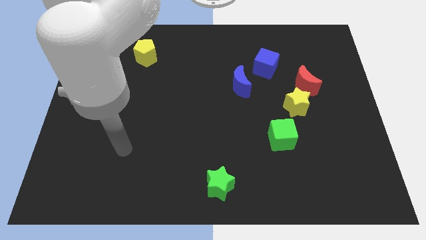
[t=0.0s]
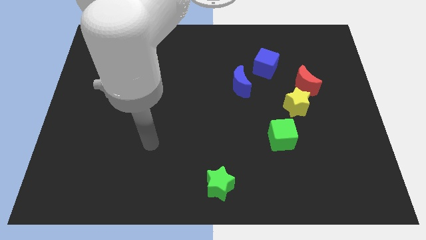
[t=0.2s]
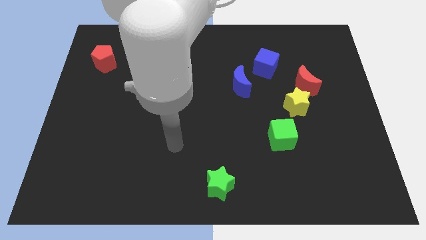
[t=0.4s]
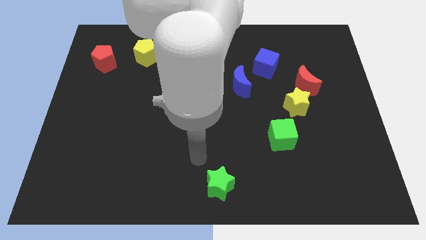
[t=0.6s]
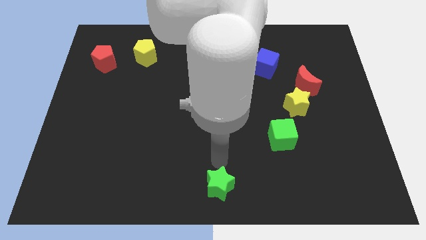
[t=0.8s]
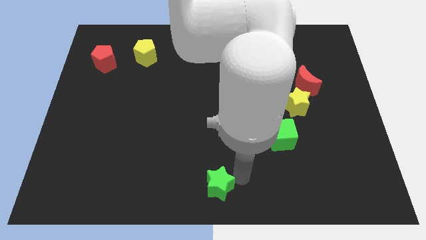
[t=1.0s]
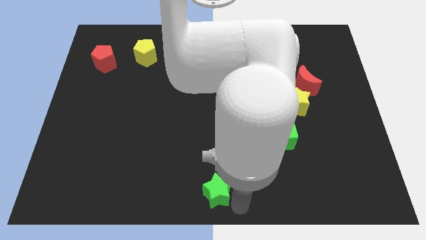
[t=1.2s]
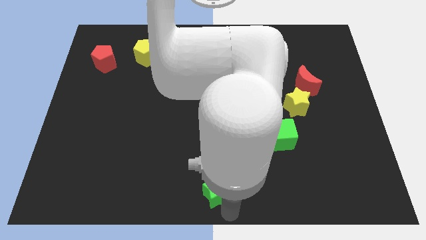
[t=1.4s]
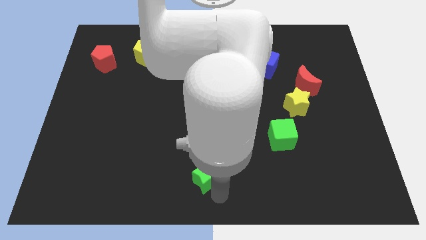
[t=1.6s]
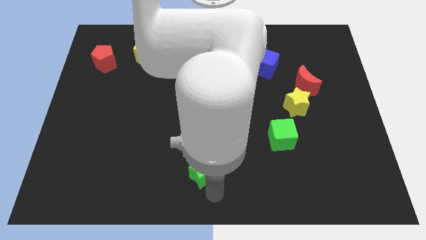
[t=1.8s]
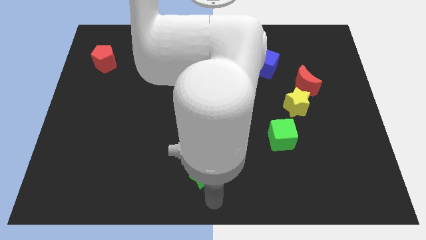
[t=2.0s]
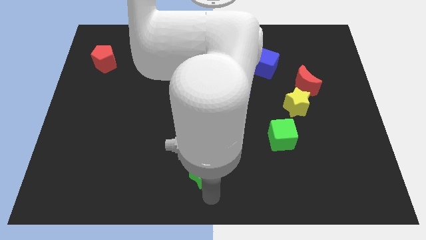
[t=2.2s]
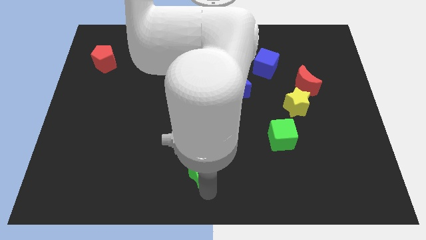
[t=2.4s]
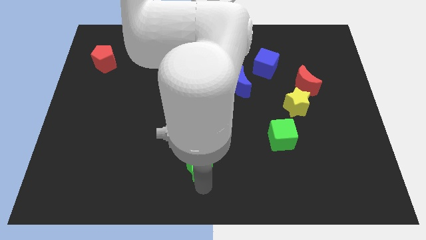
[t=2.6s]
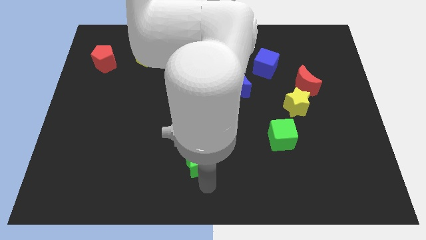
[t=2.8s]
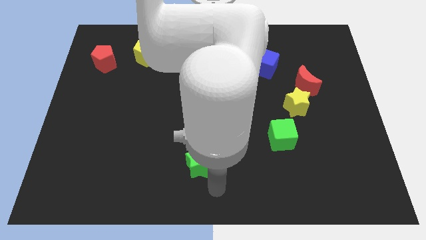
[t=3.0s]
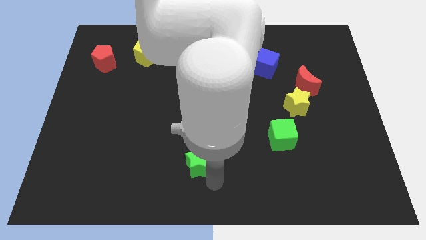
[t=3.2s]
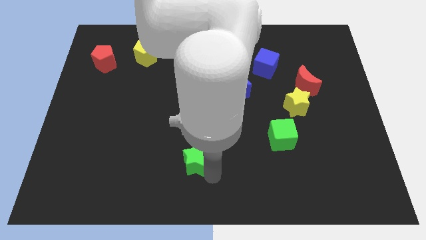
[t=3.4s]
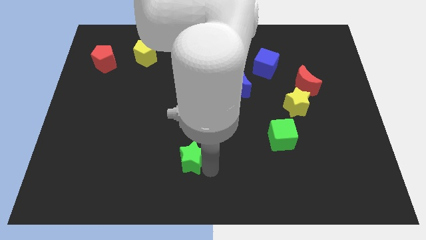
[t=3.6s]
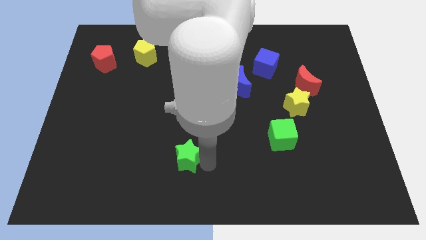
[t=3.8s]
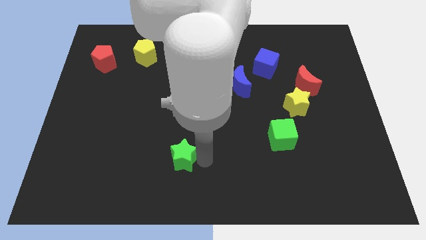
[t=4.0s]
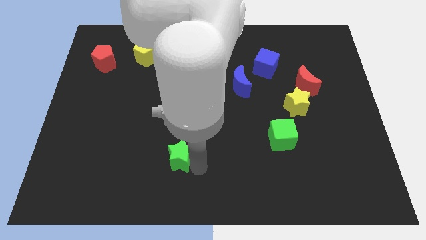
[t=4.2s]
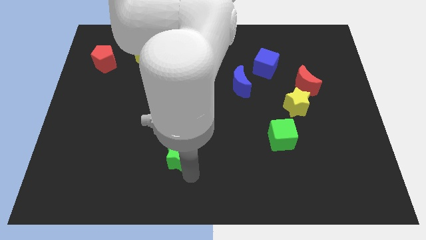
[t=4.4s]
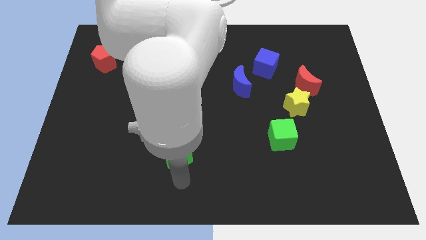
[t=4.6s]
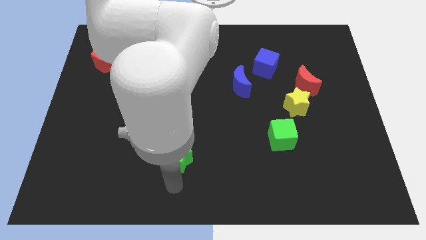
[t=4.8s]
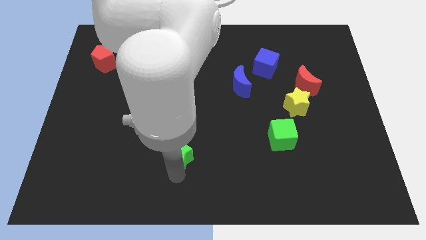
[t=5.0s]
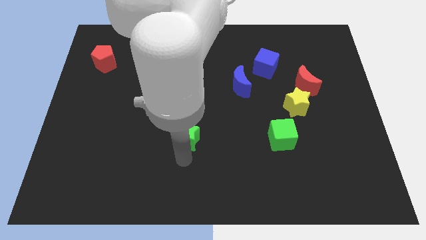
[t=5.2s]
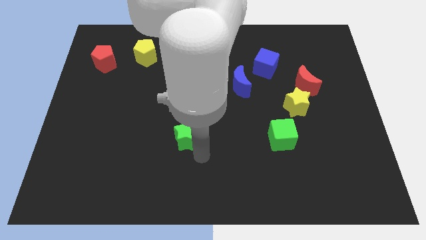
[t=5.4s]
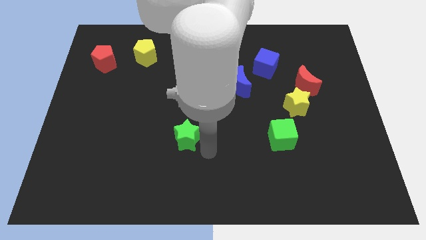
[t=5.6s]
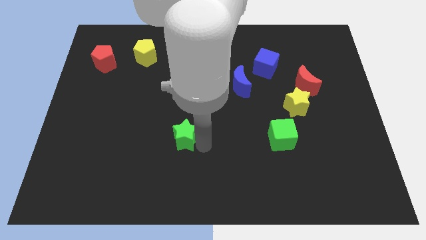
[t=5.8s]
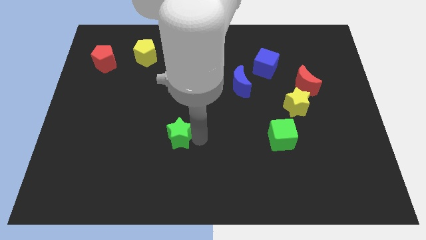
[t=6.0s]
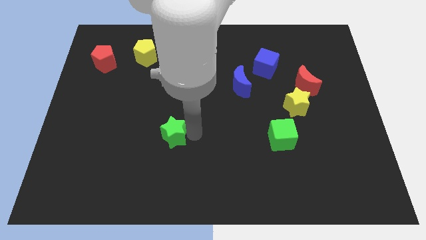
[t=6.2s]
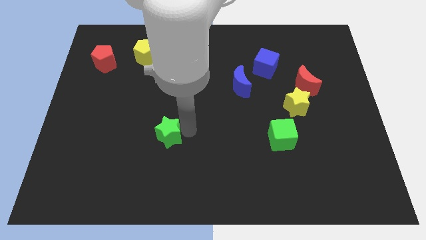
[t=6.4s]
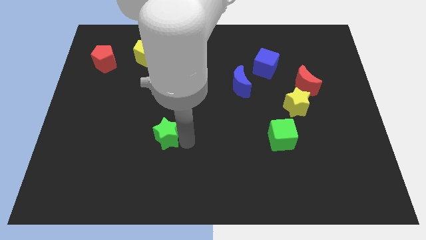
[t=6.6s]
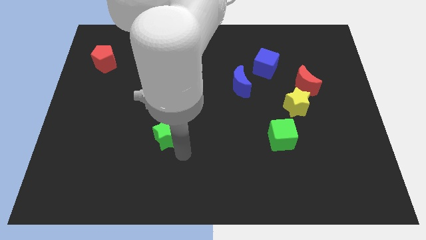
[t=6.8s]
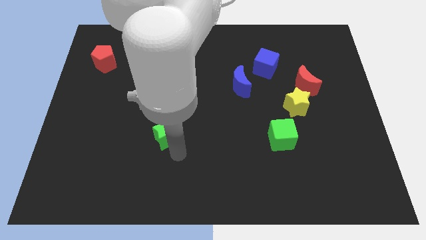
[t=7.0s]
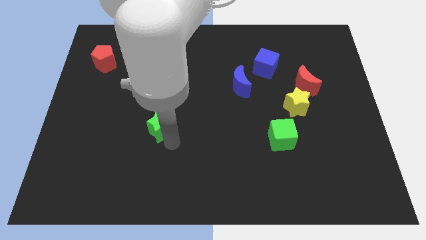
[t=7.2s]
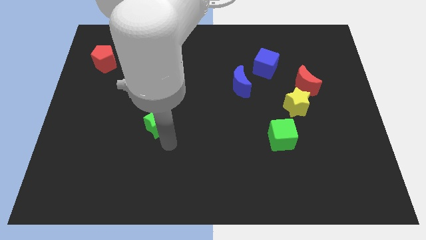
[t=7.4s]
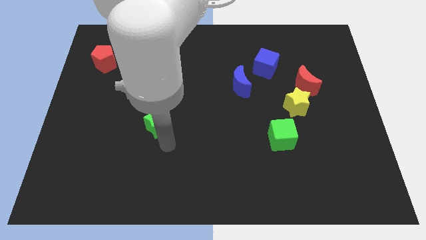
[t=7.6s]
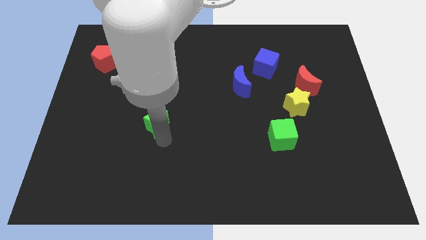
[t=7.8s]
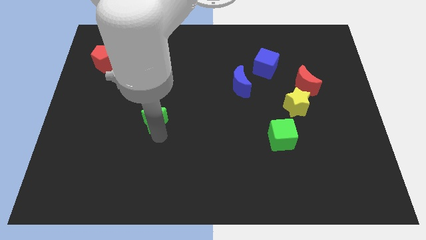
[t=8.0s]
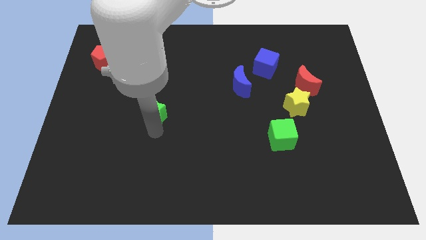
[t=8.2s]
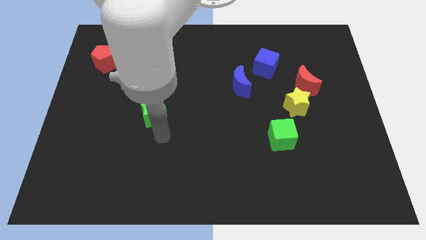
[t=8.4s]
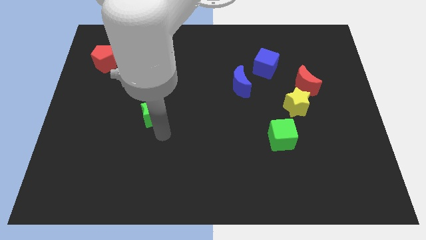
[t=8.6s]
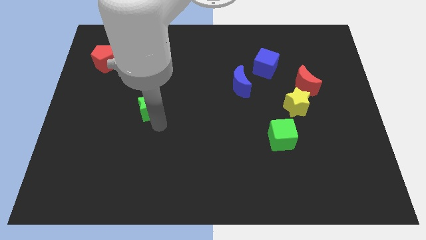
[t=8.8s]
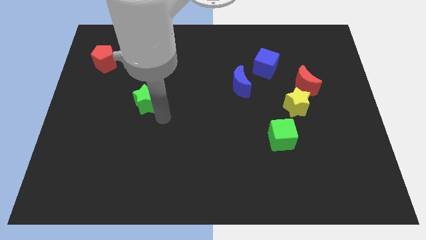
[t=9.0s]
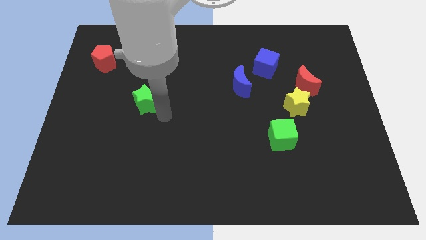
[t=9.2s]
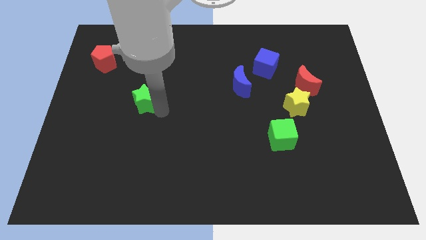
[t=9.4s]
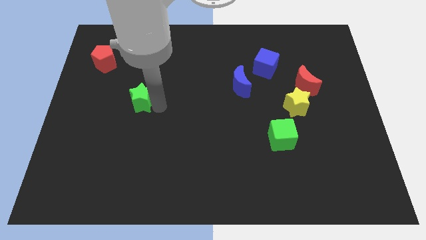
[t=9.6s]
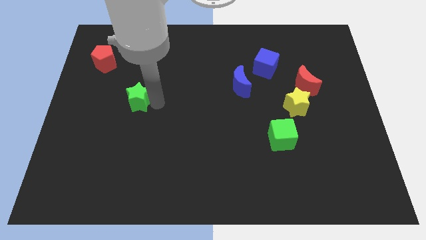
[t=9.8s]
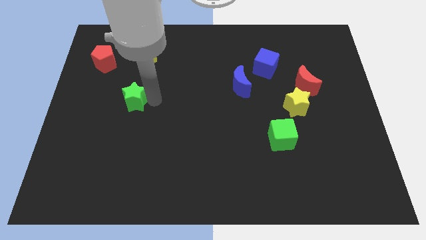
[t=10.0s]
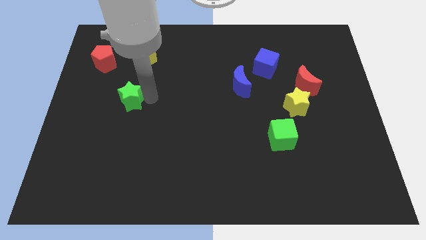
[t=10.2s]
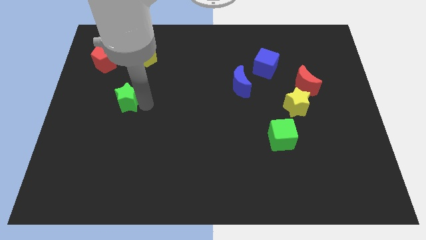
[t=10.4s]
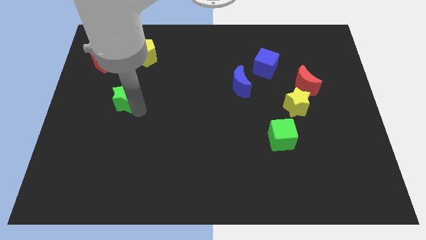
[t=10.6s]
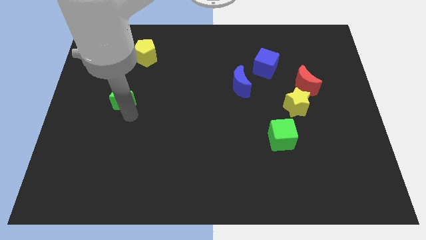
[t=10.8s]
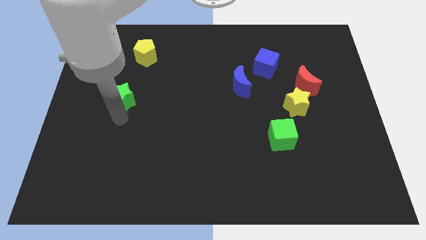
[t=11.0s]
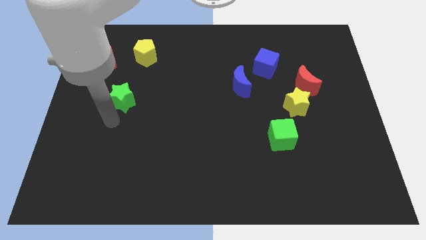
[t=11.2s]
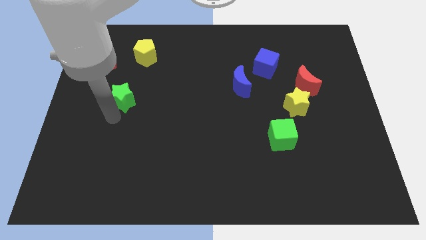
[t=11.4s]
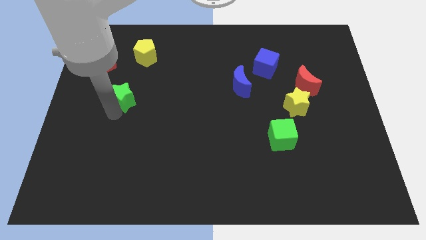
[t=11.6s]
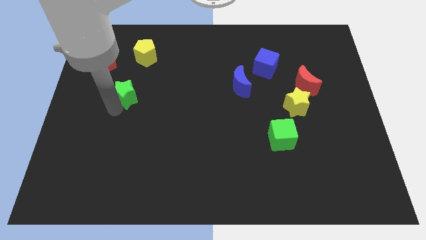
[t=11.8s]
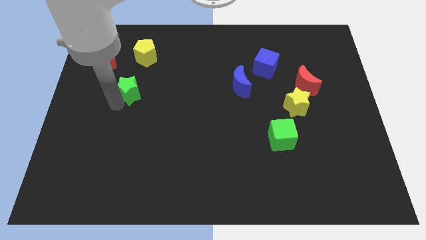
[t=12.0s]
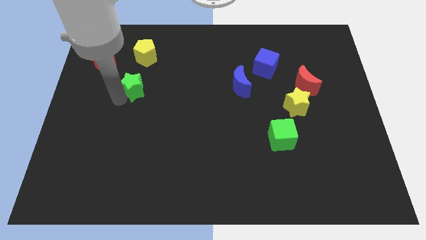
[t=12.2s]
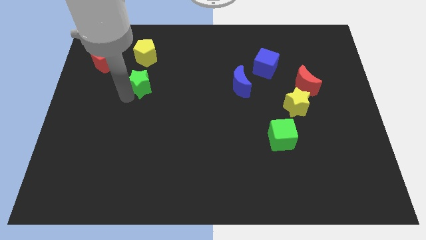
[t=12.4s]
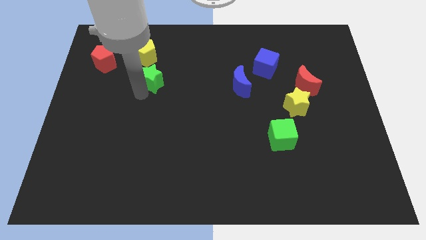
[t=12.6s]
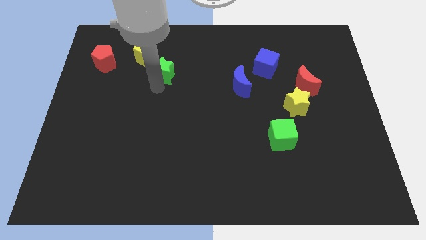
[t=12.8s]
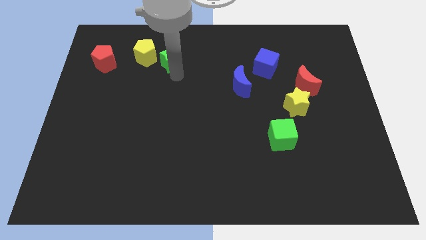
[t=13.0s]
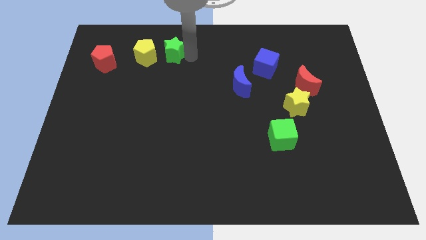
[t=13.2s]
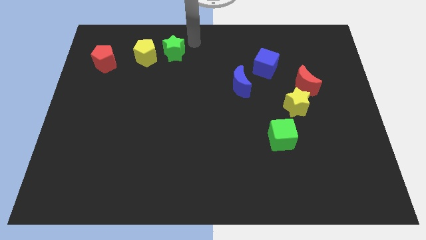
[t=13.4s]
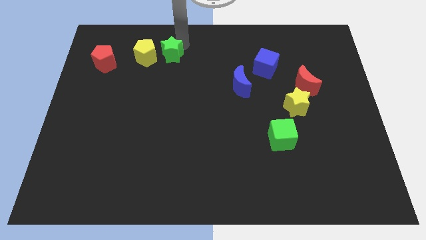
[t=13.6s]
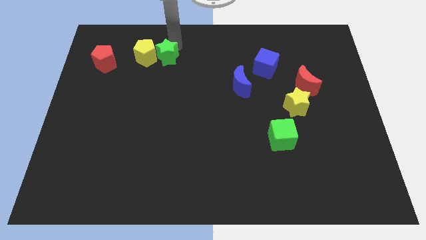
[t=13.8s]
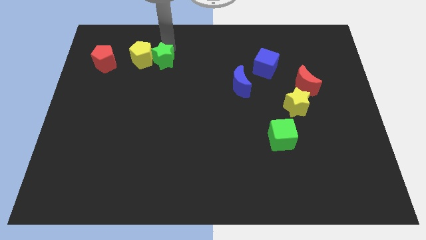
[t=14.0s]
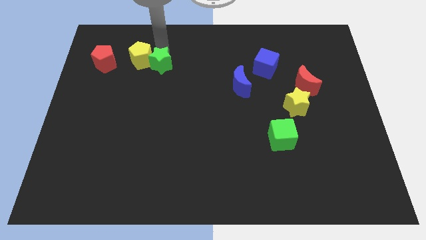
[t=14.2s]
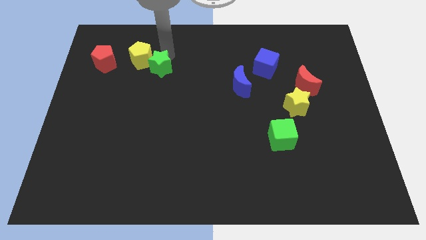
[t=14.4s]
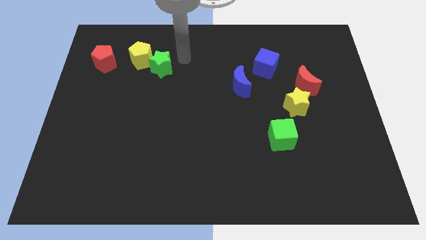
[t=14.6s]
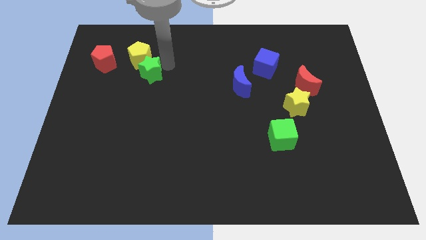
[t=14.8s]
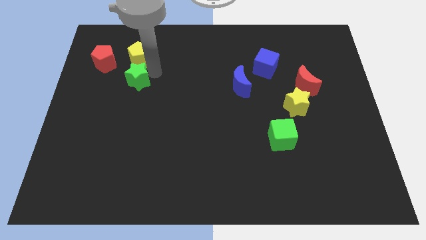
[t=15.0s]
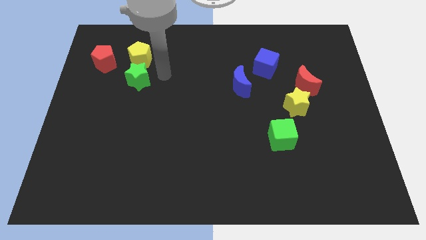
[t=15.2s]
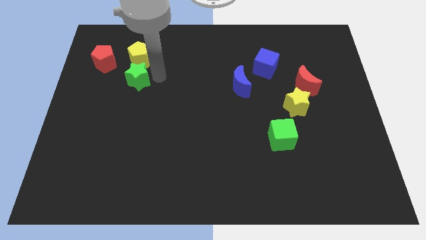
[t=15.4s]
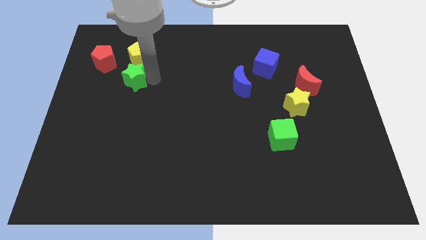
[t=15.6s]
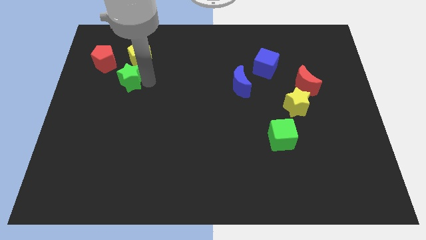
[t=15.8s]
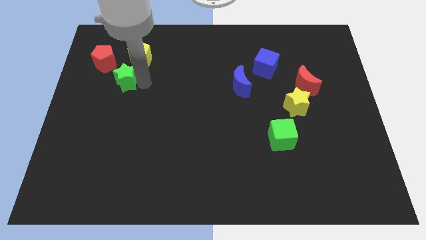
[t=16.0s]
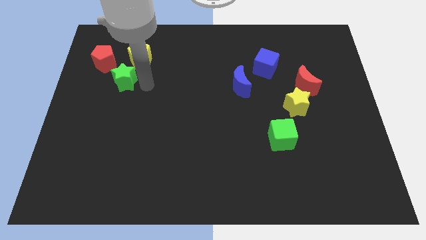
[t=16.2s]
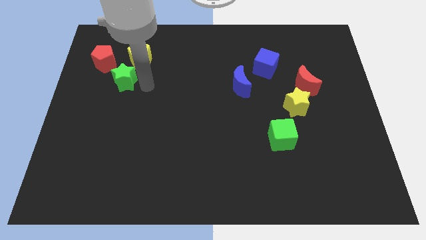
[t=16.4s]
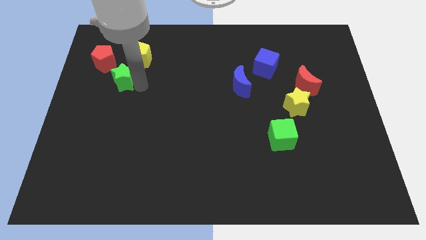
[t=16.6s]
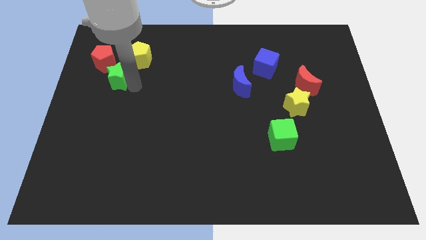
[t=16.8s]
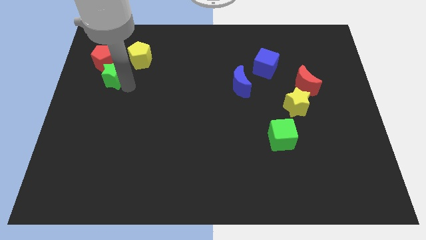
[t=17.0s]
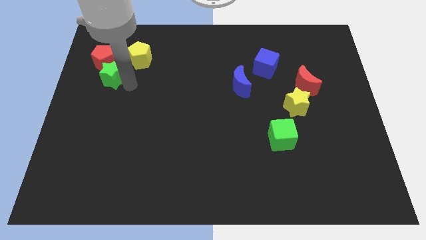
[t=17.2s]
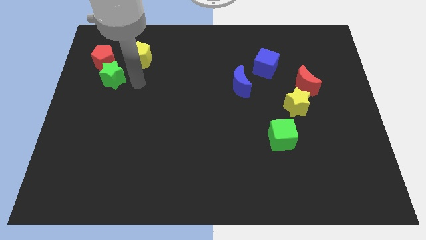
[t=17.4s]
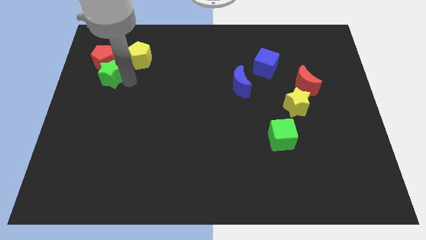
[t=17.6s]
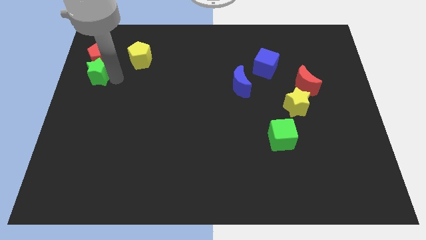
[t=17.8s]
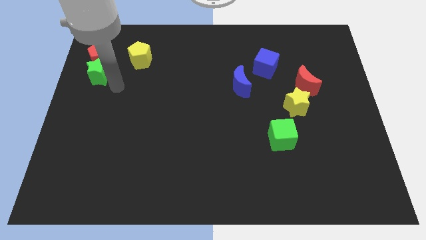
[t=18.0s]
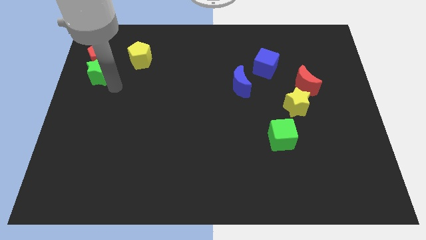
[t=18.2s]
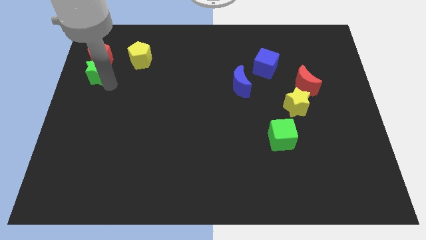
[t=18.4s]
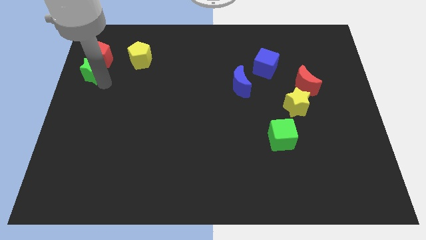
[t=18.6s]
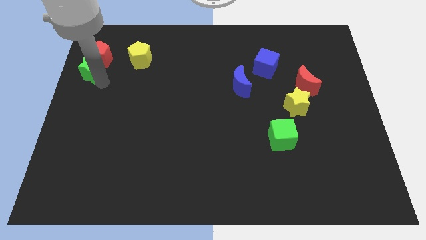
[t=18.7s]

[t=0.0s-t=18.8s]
slide the green star to the left side of the yellow pentagon
